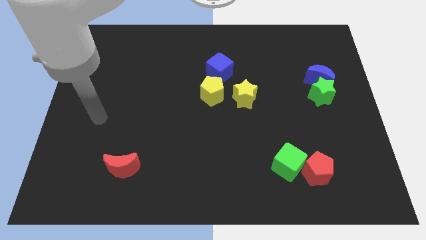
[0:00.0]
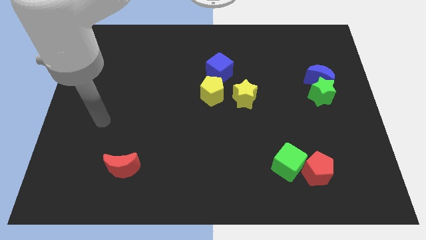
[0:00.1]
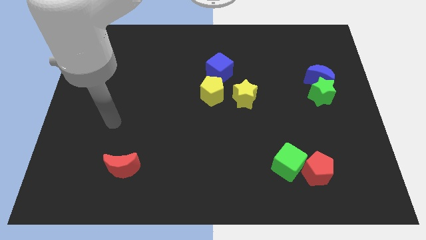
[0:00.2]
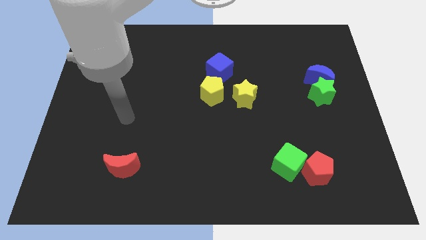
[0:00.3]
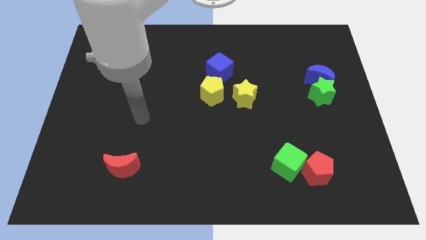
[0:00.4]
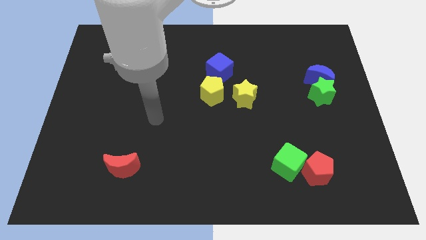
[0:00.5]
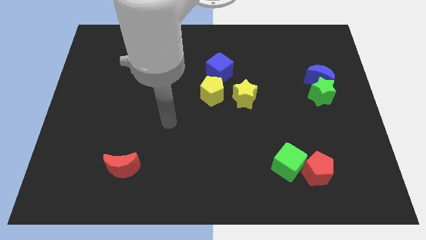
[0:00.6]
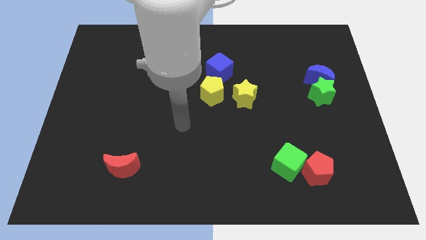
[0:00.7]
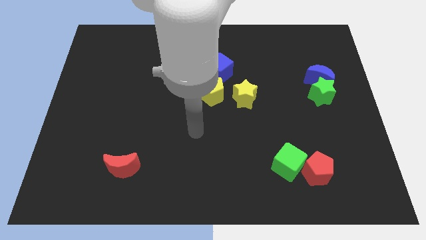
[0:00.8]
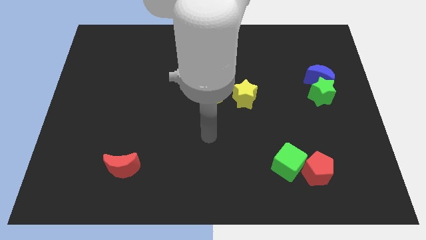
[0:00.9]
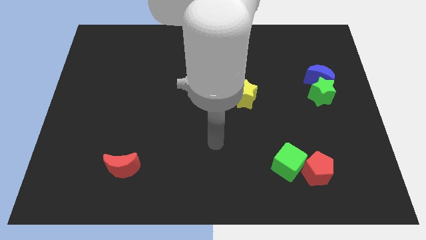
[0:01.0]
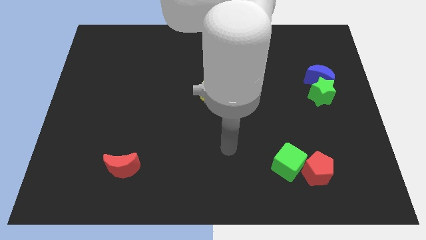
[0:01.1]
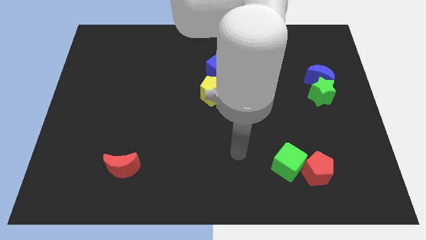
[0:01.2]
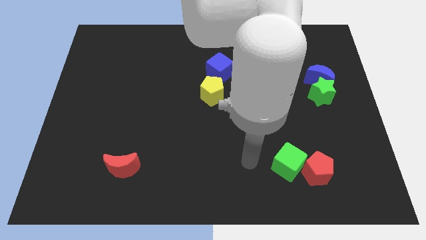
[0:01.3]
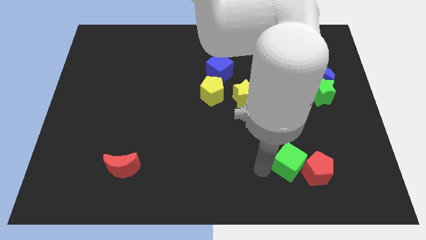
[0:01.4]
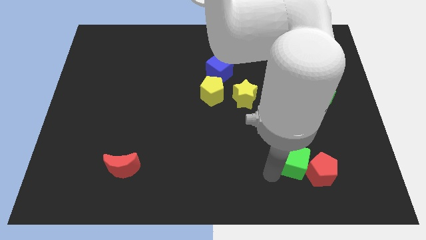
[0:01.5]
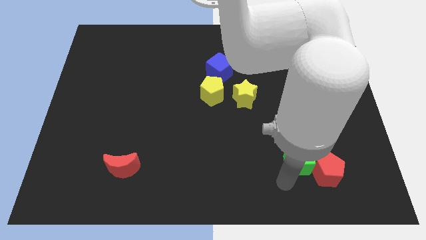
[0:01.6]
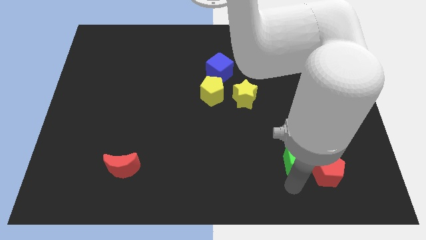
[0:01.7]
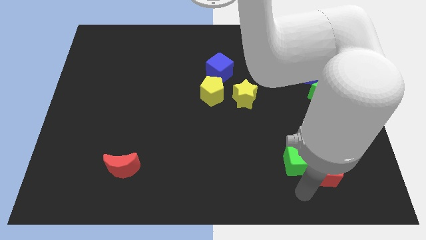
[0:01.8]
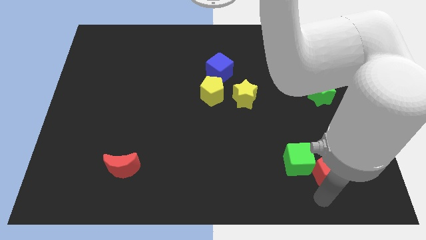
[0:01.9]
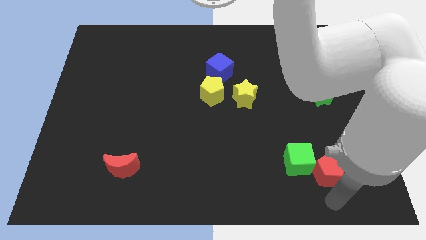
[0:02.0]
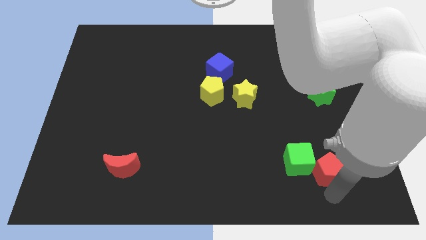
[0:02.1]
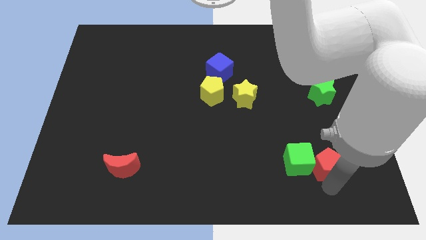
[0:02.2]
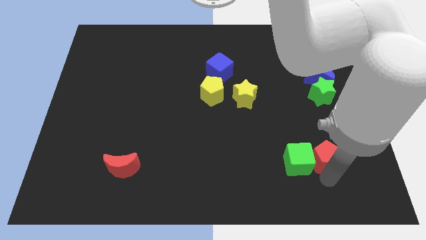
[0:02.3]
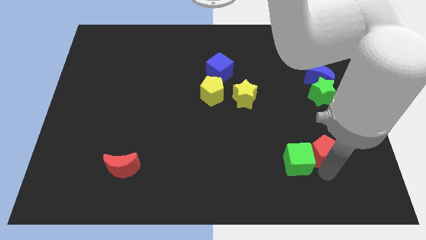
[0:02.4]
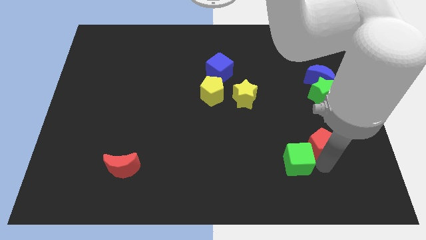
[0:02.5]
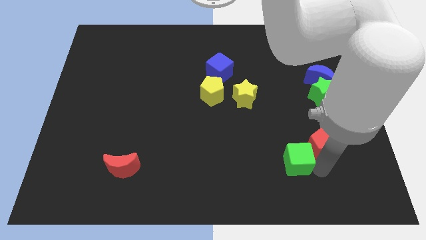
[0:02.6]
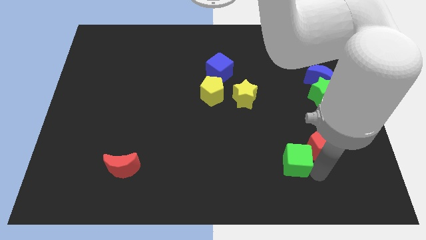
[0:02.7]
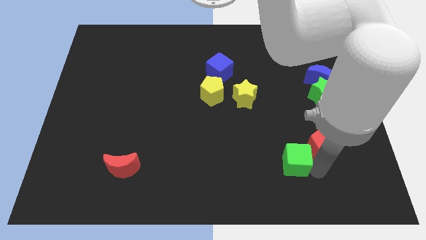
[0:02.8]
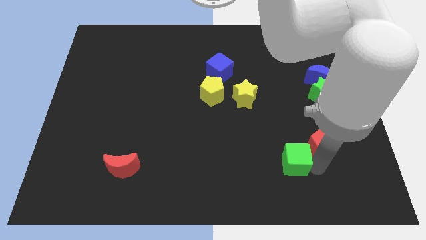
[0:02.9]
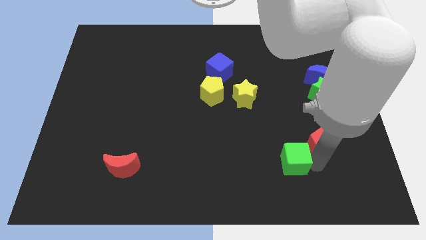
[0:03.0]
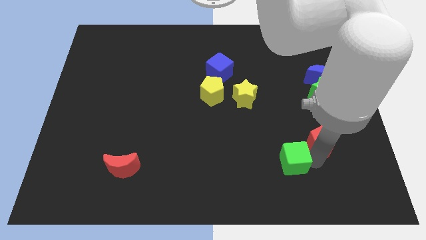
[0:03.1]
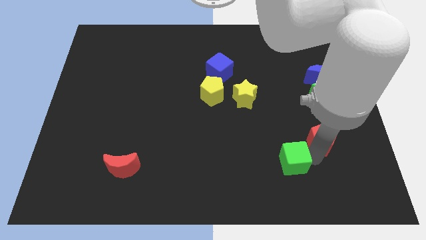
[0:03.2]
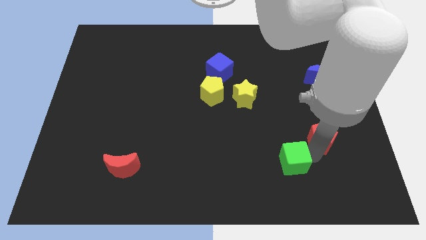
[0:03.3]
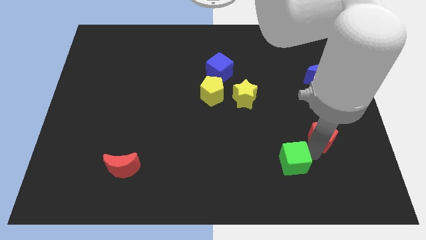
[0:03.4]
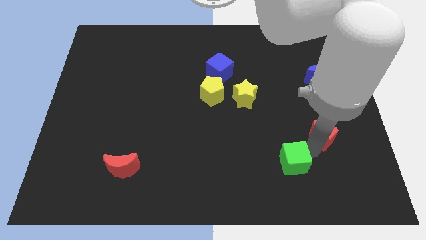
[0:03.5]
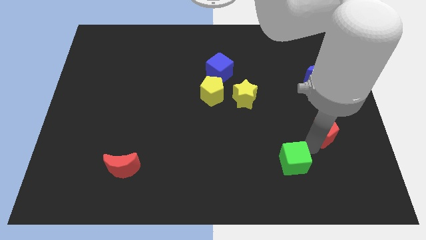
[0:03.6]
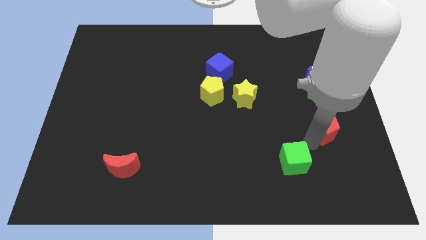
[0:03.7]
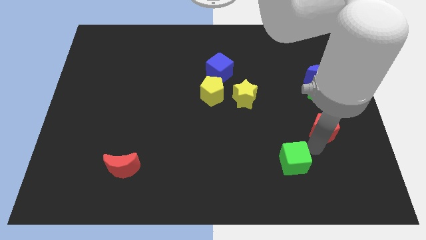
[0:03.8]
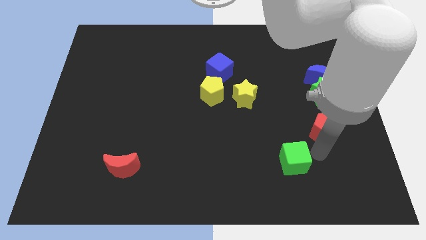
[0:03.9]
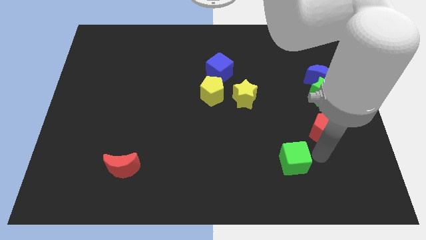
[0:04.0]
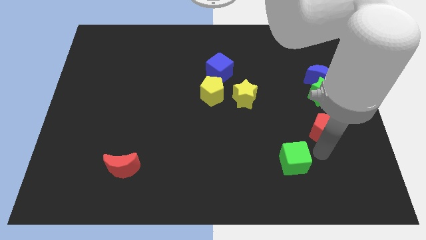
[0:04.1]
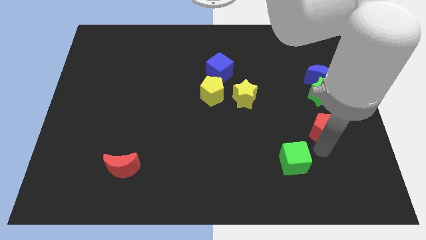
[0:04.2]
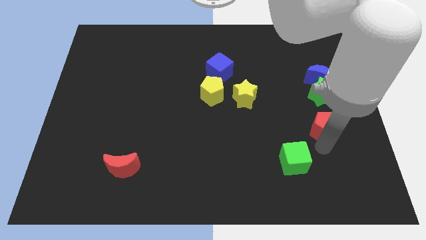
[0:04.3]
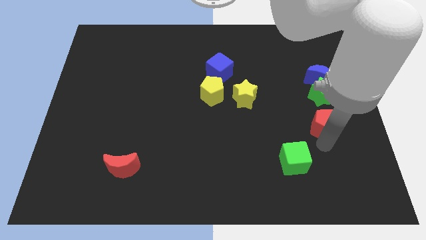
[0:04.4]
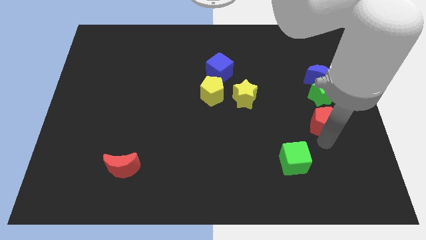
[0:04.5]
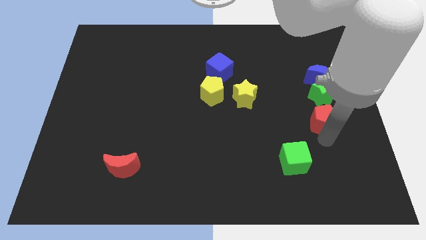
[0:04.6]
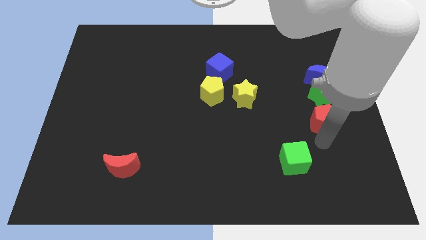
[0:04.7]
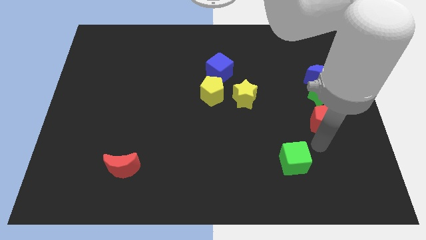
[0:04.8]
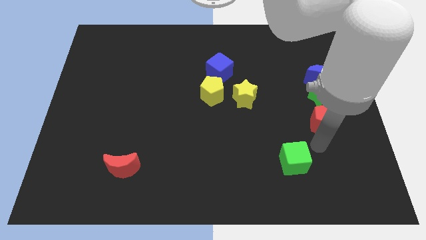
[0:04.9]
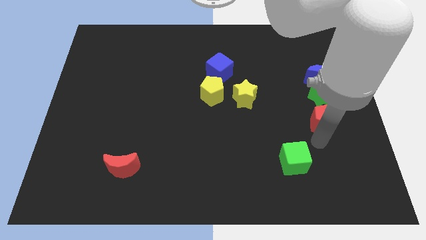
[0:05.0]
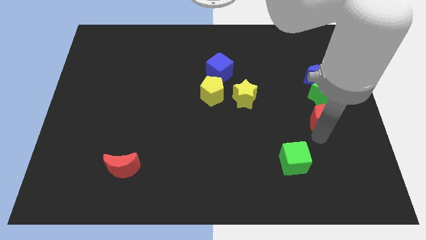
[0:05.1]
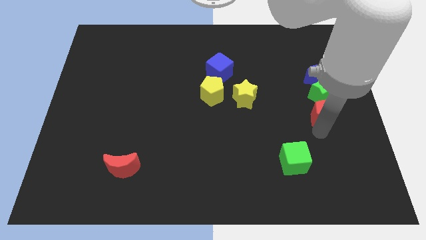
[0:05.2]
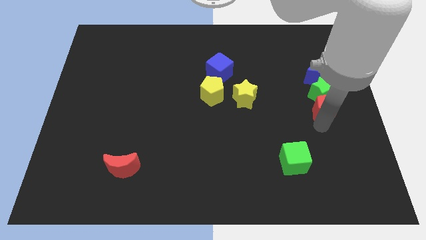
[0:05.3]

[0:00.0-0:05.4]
push the red pentagon close to the green star

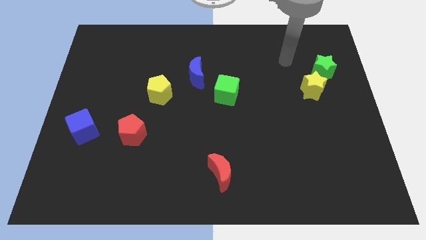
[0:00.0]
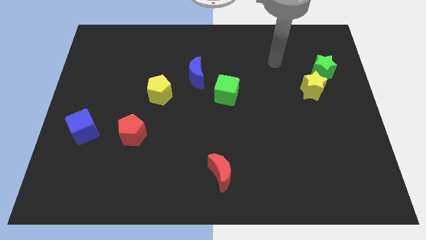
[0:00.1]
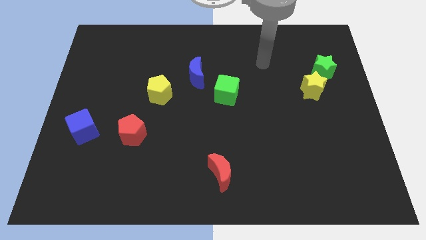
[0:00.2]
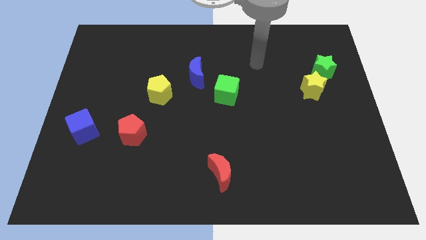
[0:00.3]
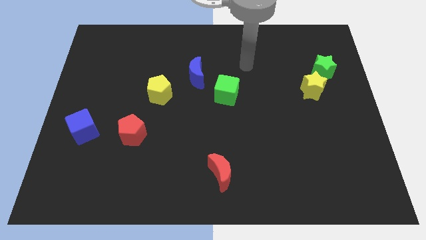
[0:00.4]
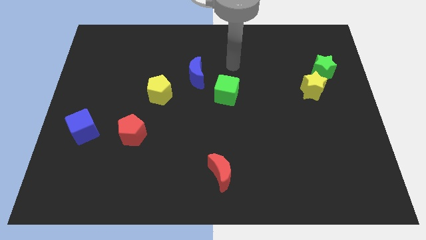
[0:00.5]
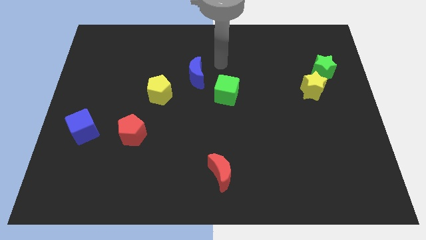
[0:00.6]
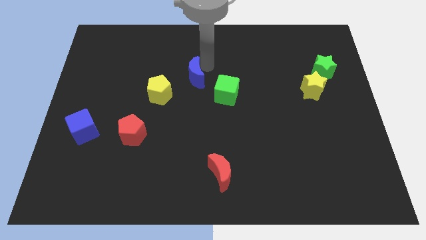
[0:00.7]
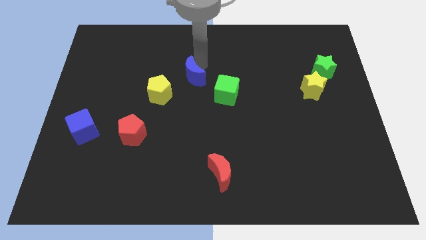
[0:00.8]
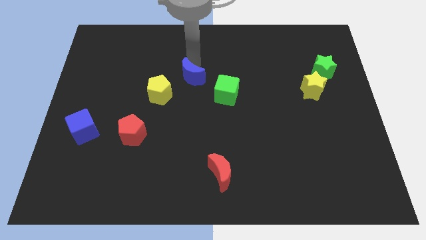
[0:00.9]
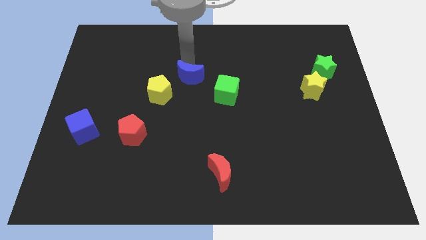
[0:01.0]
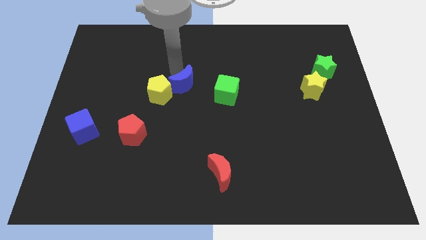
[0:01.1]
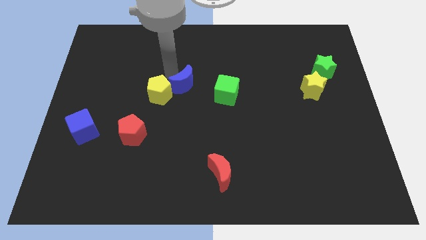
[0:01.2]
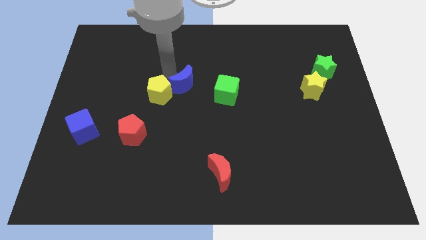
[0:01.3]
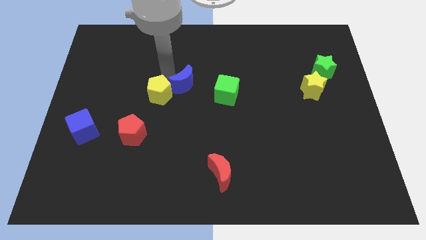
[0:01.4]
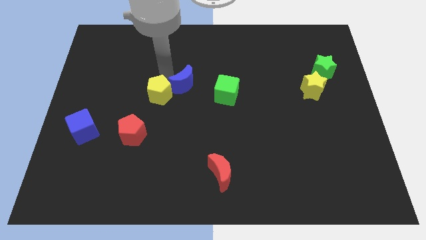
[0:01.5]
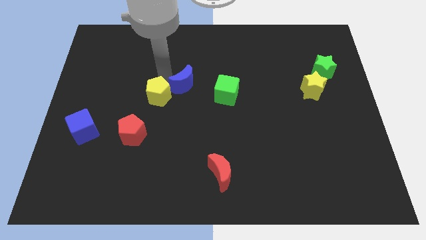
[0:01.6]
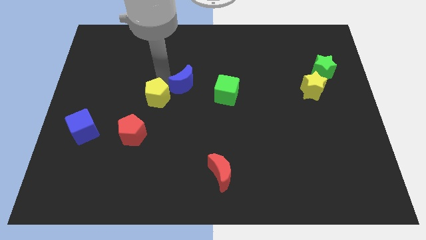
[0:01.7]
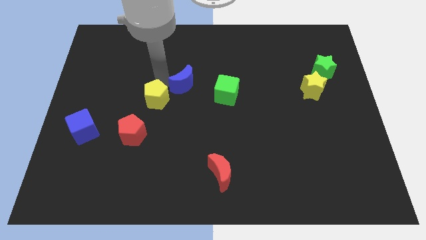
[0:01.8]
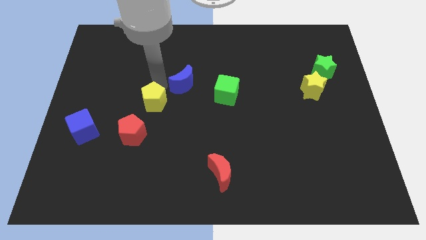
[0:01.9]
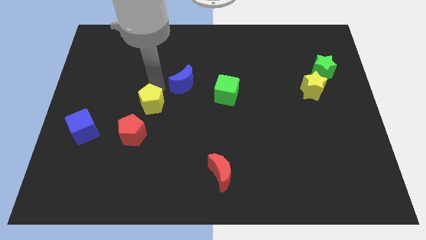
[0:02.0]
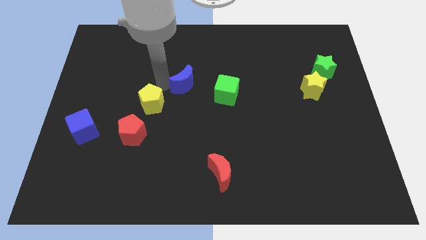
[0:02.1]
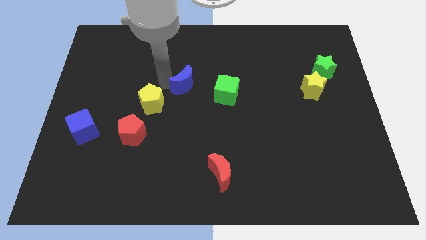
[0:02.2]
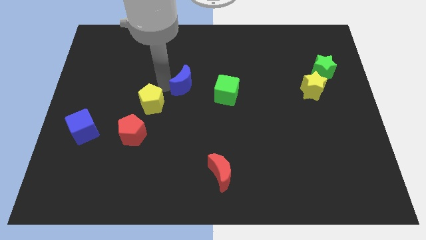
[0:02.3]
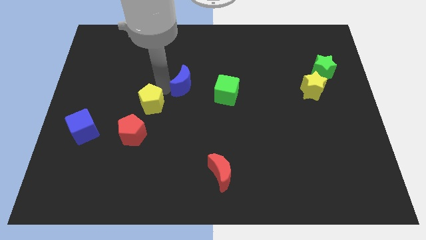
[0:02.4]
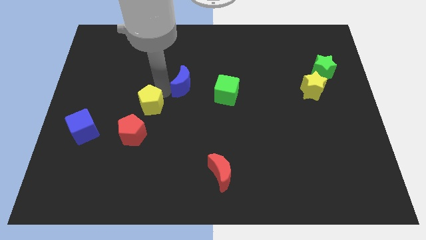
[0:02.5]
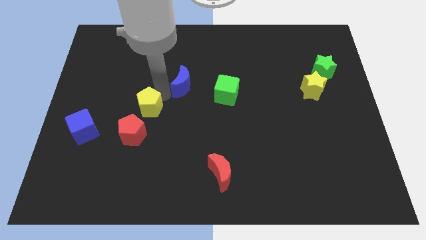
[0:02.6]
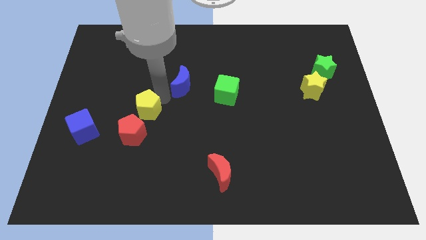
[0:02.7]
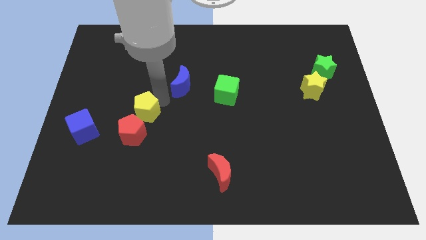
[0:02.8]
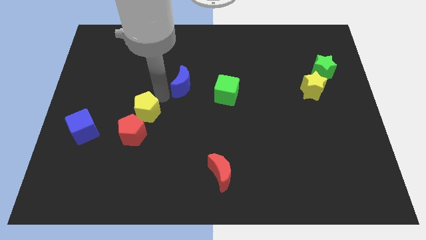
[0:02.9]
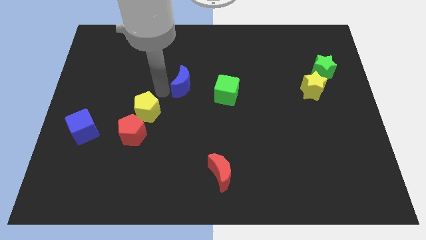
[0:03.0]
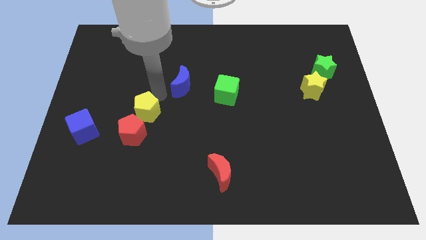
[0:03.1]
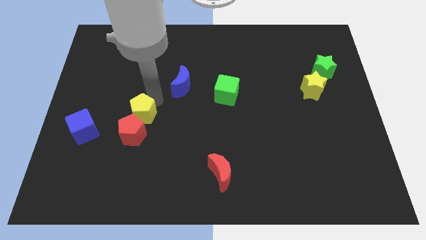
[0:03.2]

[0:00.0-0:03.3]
put the yellow pentagon next to the red pentagon
